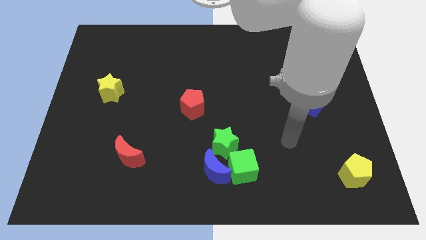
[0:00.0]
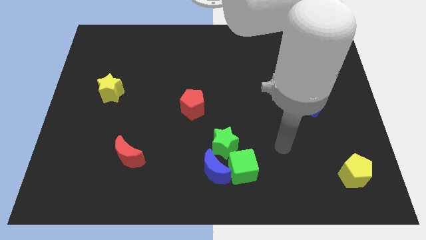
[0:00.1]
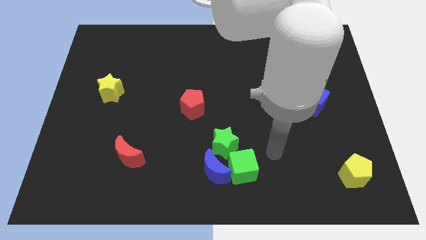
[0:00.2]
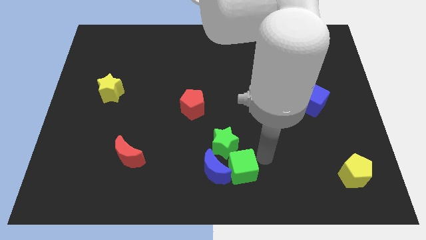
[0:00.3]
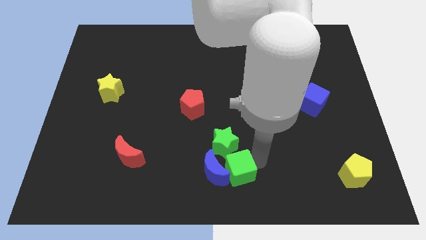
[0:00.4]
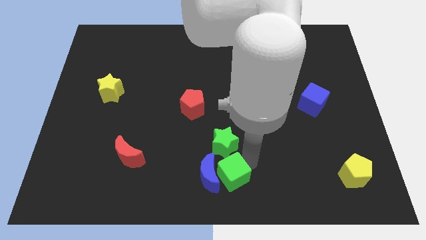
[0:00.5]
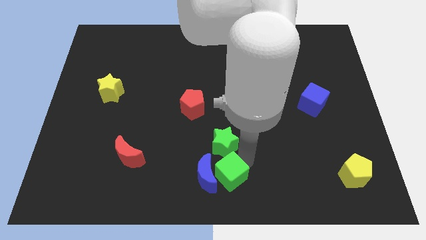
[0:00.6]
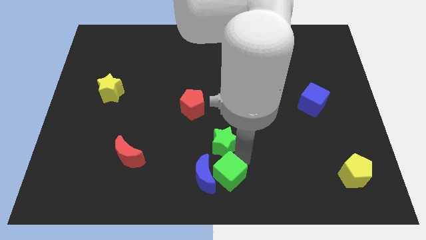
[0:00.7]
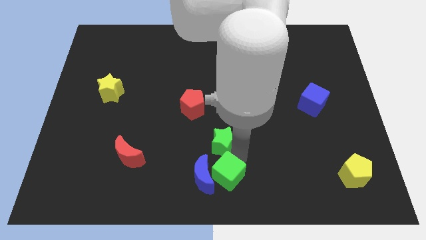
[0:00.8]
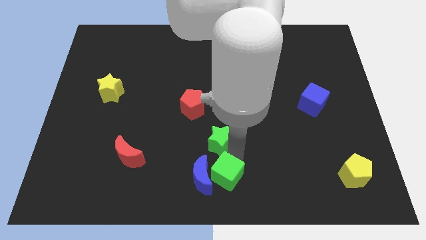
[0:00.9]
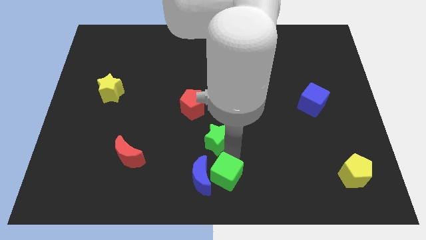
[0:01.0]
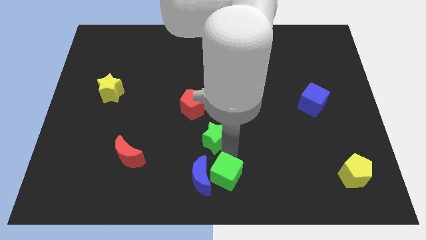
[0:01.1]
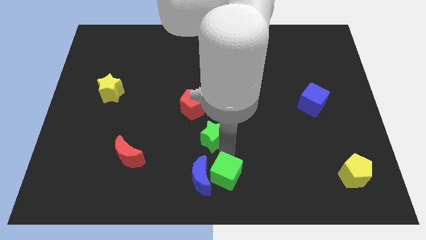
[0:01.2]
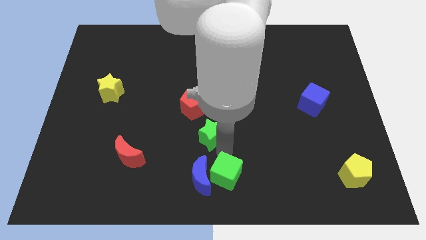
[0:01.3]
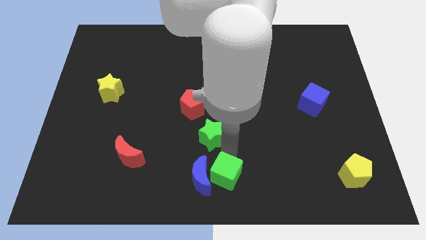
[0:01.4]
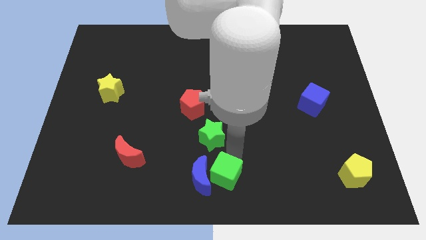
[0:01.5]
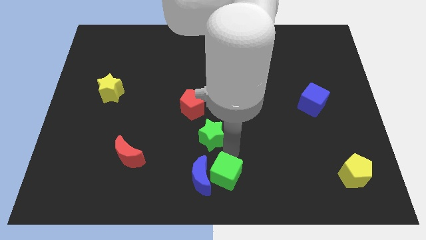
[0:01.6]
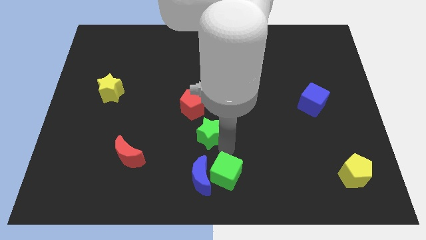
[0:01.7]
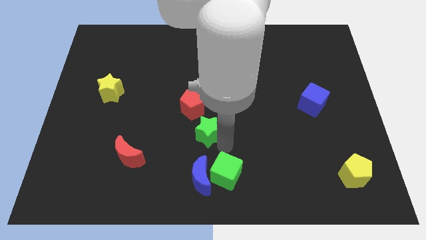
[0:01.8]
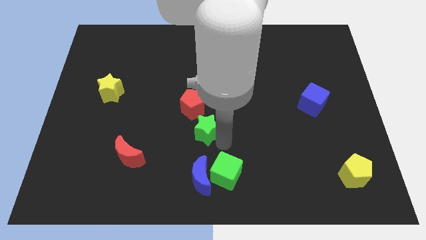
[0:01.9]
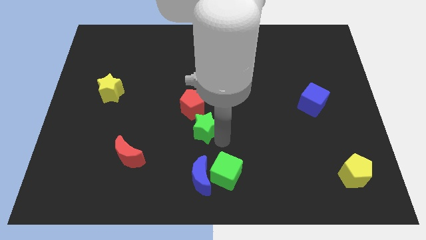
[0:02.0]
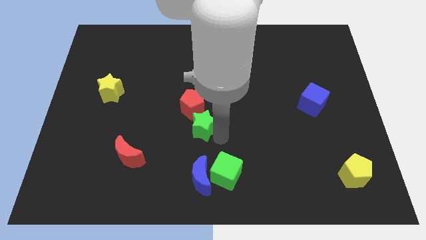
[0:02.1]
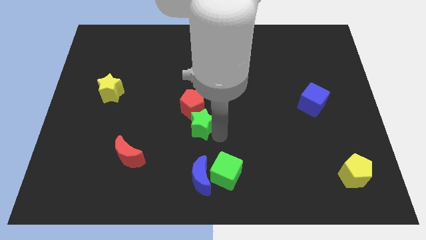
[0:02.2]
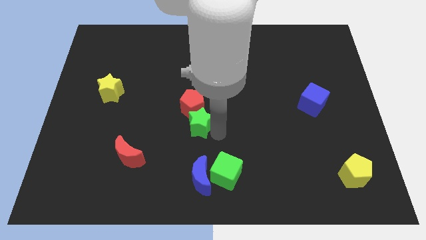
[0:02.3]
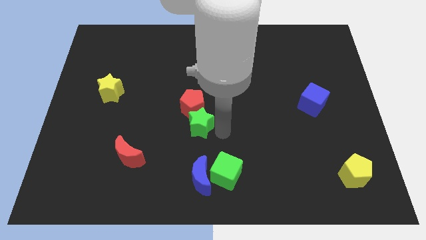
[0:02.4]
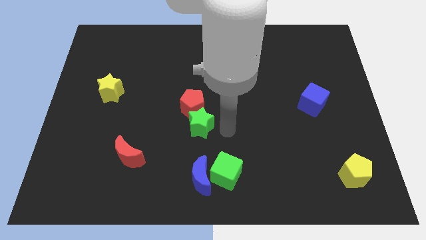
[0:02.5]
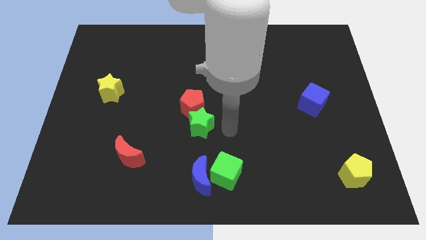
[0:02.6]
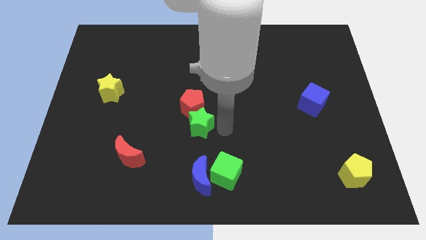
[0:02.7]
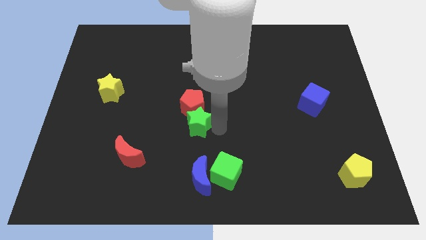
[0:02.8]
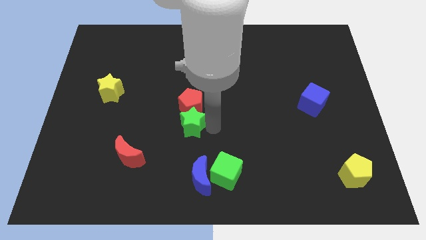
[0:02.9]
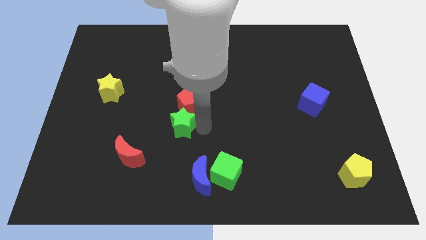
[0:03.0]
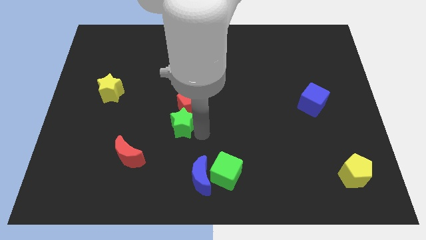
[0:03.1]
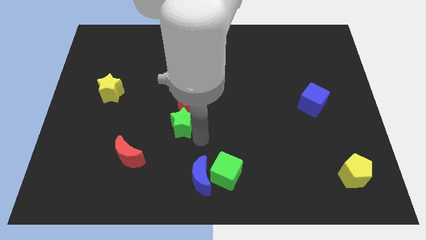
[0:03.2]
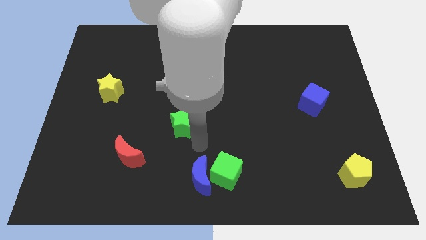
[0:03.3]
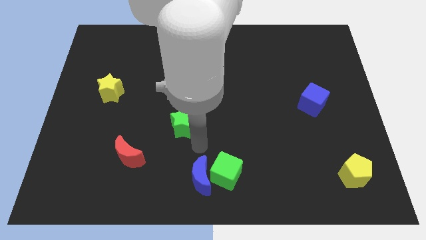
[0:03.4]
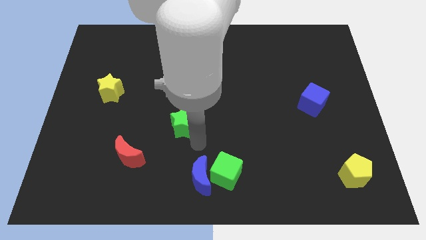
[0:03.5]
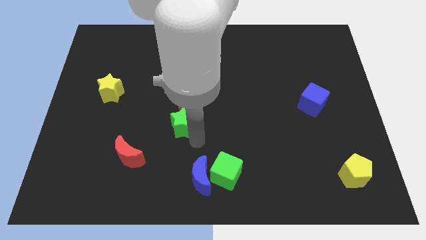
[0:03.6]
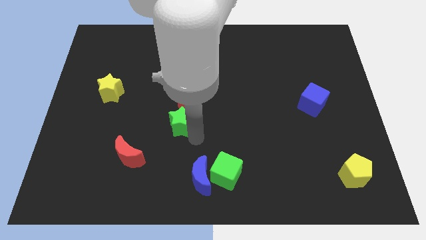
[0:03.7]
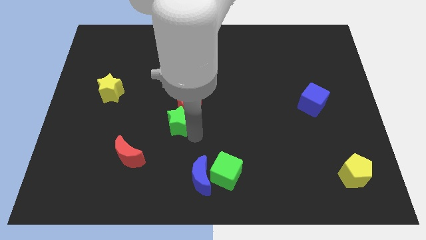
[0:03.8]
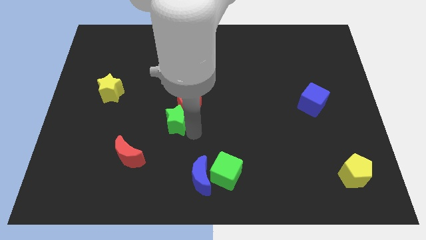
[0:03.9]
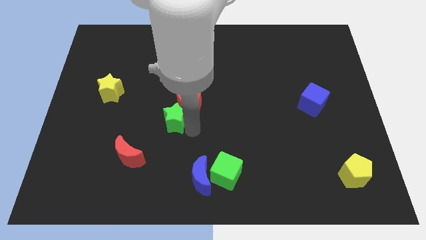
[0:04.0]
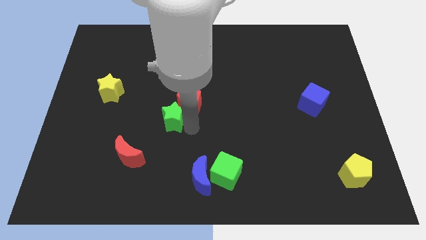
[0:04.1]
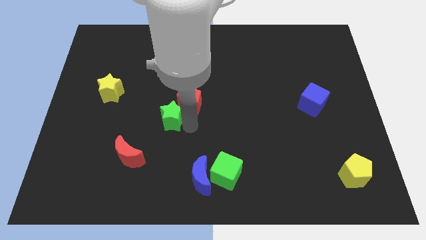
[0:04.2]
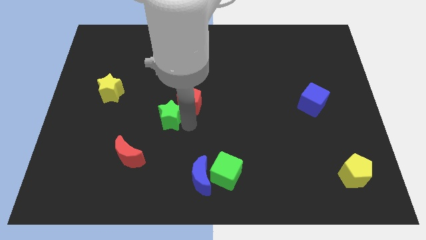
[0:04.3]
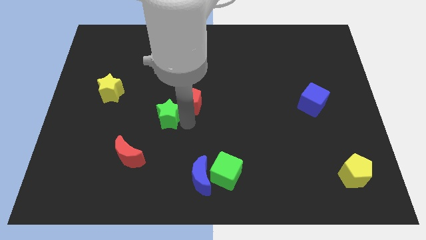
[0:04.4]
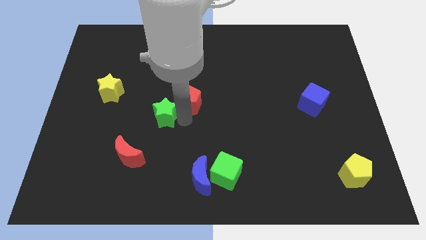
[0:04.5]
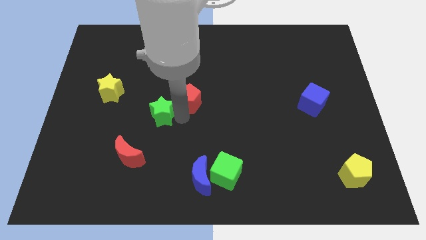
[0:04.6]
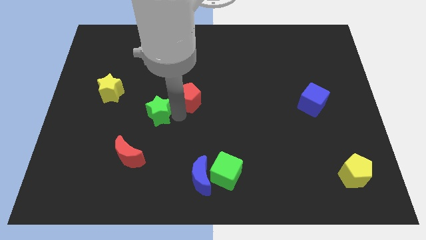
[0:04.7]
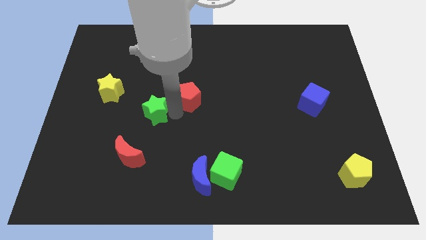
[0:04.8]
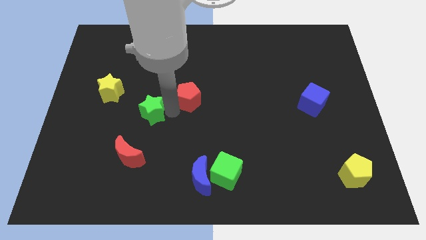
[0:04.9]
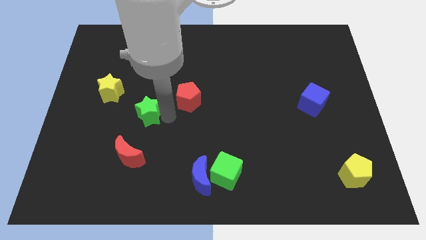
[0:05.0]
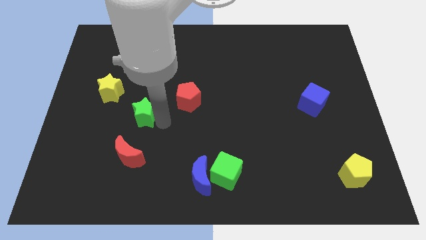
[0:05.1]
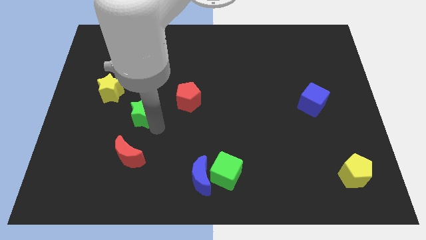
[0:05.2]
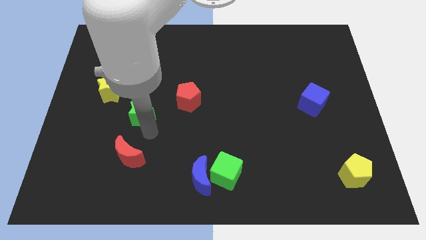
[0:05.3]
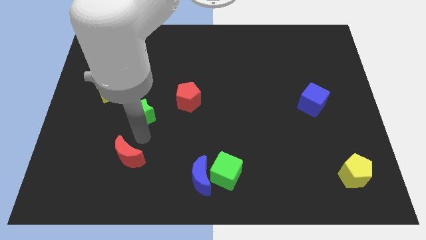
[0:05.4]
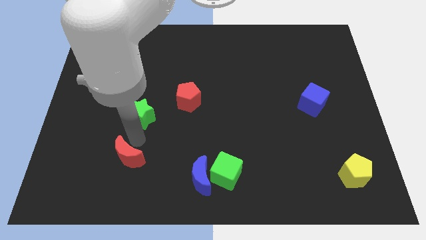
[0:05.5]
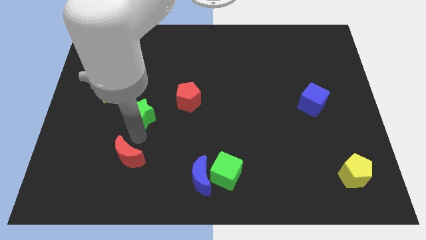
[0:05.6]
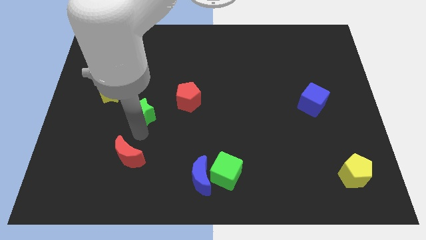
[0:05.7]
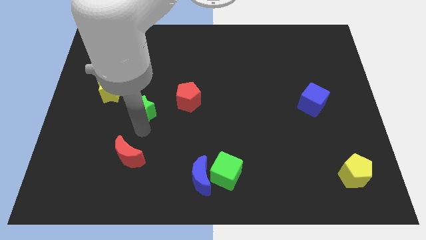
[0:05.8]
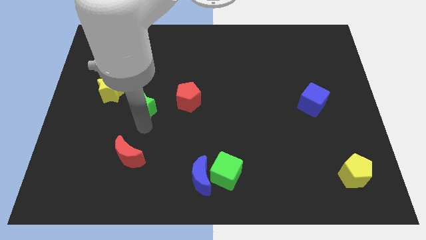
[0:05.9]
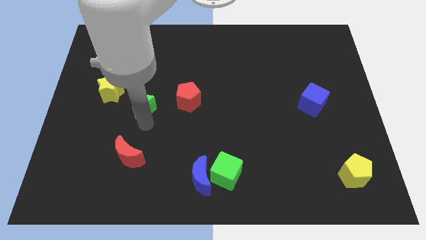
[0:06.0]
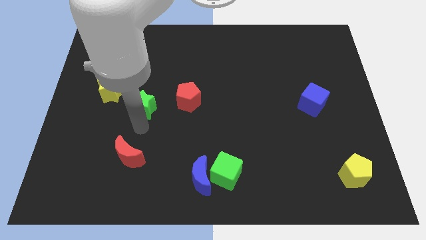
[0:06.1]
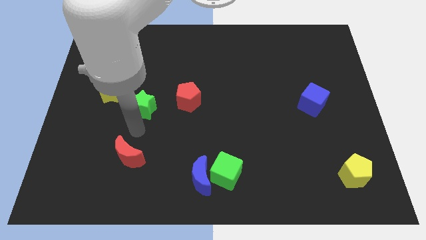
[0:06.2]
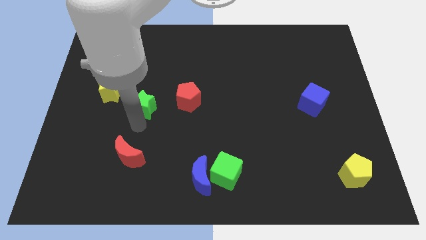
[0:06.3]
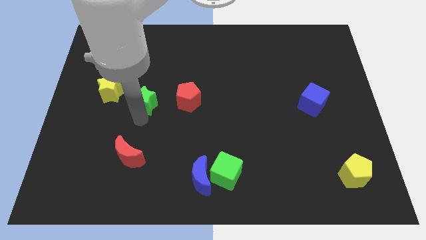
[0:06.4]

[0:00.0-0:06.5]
move the green star up and to the left

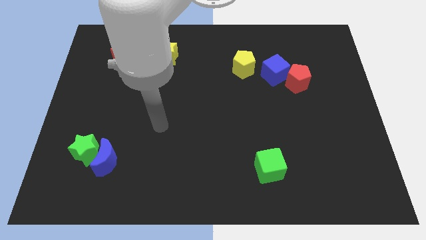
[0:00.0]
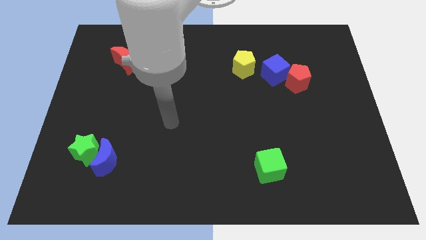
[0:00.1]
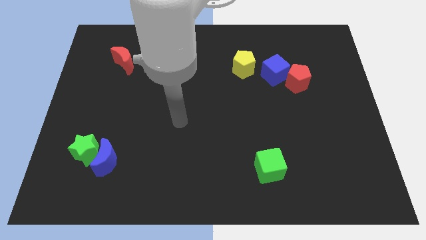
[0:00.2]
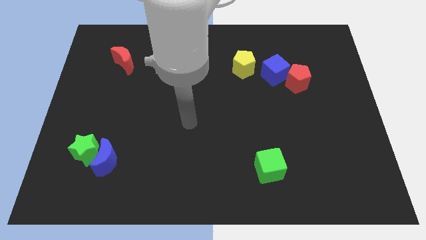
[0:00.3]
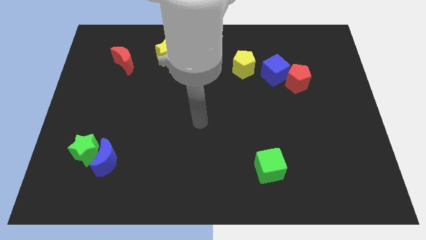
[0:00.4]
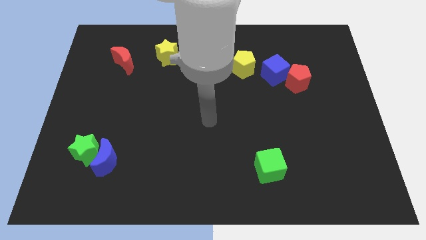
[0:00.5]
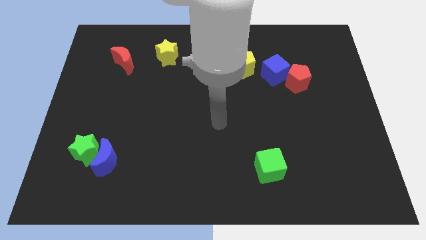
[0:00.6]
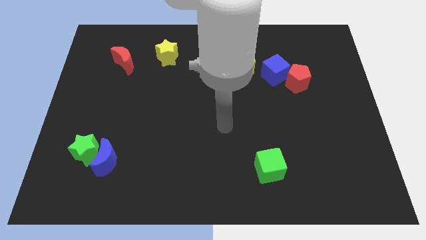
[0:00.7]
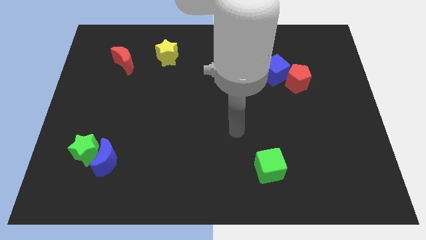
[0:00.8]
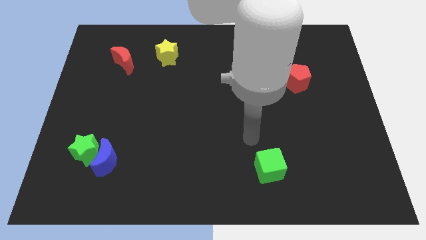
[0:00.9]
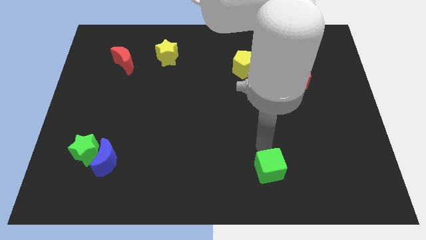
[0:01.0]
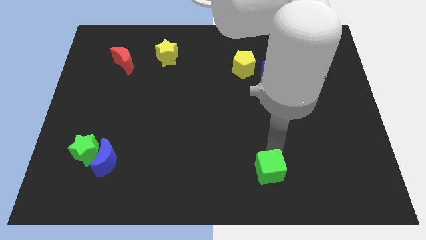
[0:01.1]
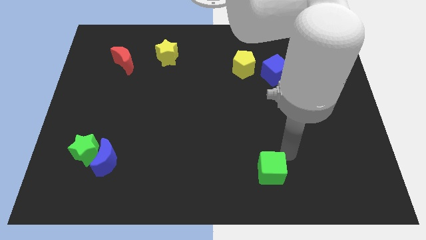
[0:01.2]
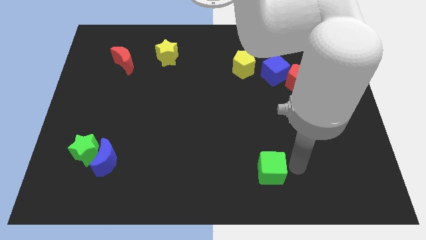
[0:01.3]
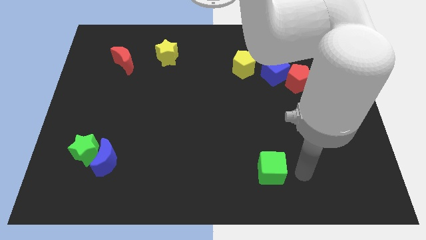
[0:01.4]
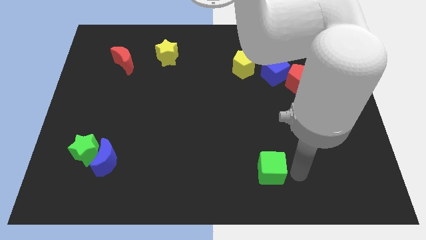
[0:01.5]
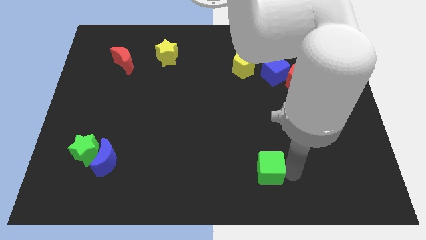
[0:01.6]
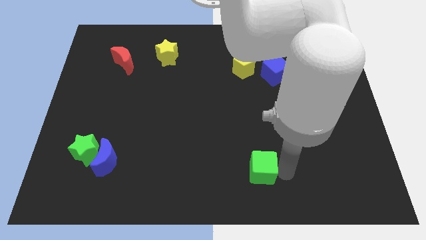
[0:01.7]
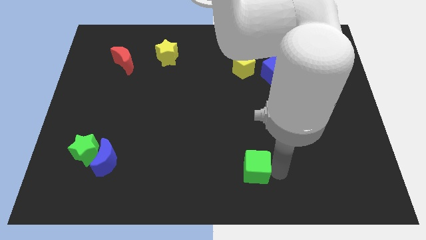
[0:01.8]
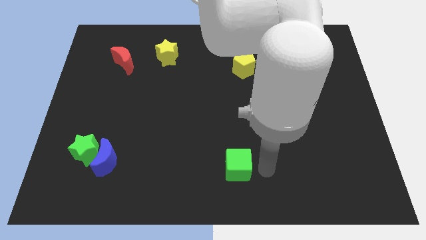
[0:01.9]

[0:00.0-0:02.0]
slightly move the green cube left
